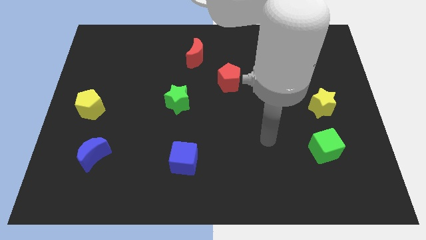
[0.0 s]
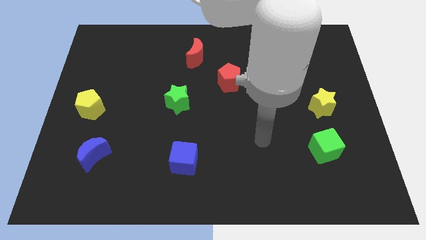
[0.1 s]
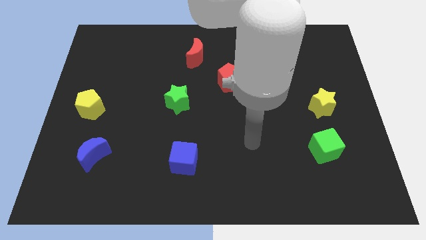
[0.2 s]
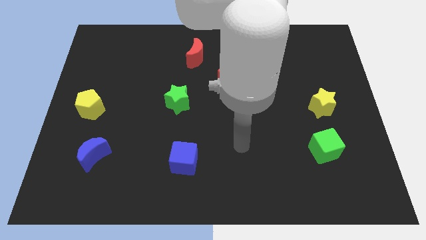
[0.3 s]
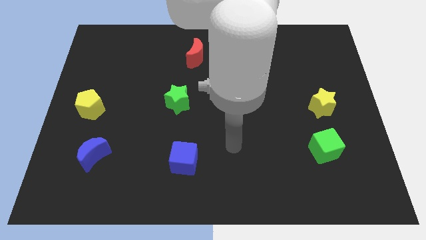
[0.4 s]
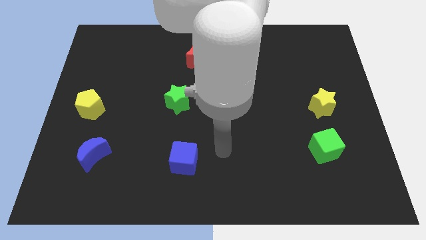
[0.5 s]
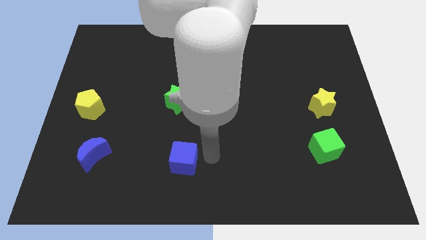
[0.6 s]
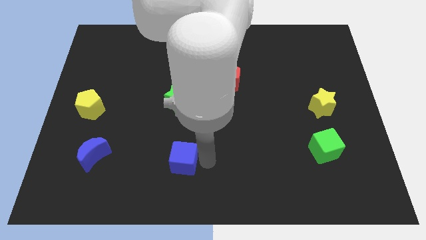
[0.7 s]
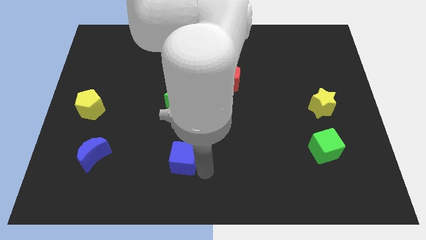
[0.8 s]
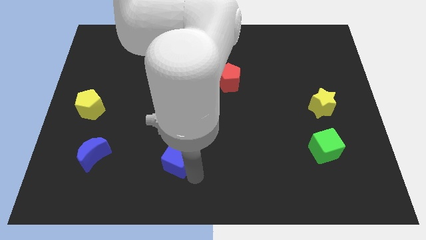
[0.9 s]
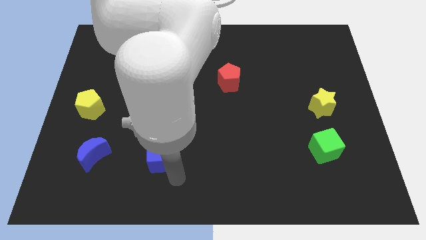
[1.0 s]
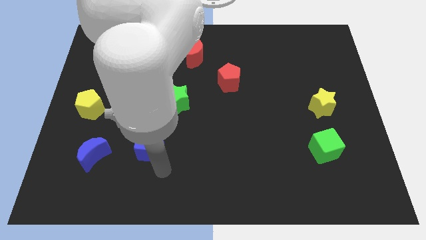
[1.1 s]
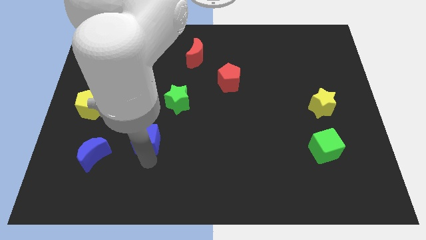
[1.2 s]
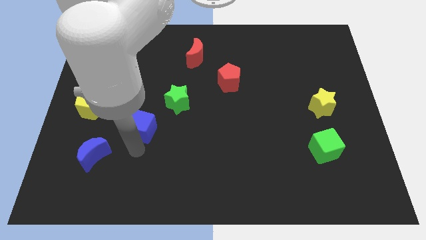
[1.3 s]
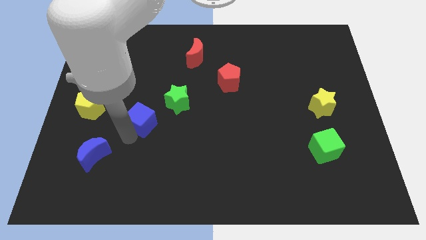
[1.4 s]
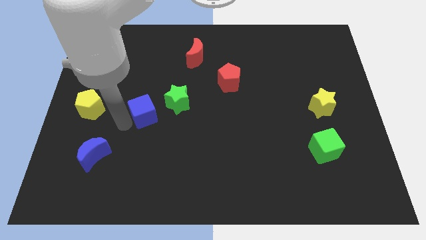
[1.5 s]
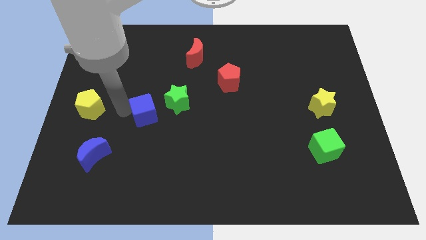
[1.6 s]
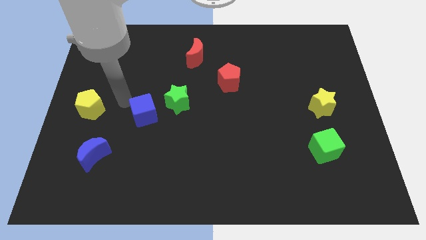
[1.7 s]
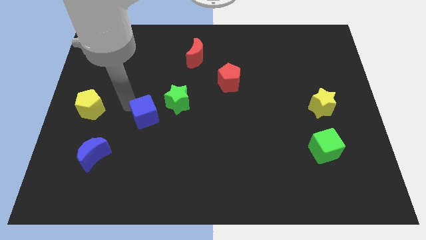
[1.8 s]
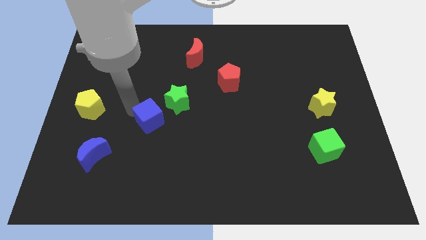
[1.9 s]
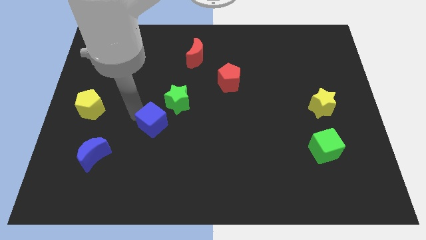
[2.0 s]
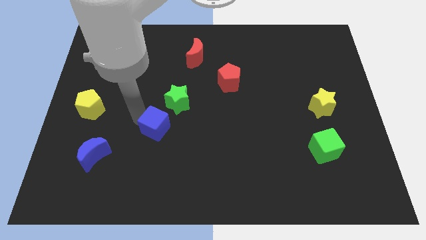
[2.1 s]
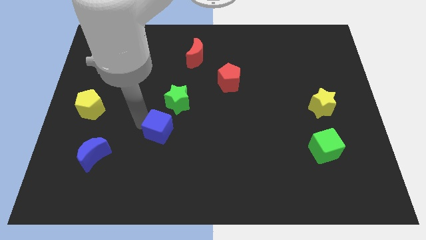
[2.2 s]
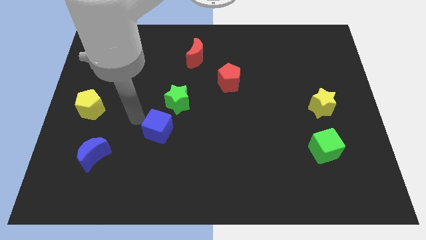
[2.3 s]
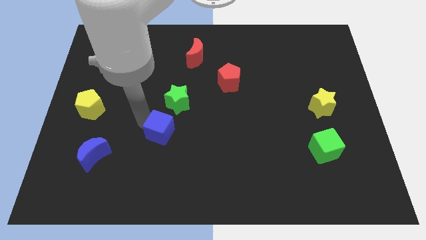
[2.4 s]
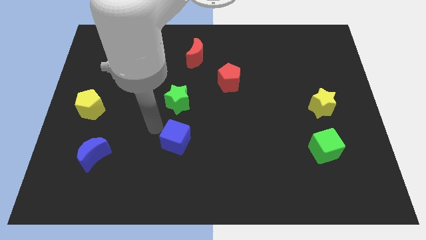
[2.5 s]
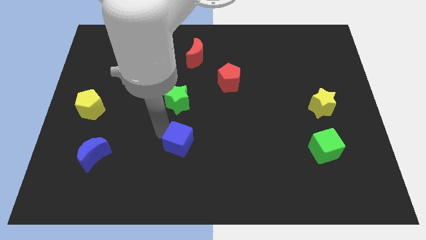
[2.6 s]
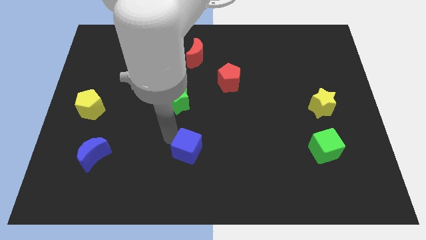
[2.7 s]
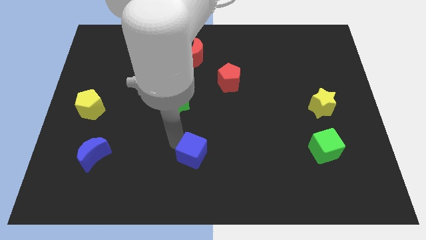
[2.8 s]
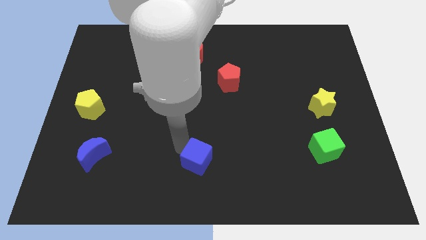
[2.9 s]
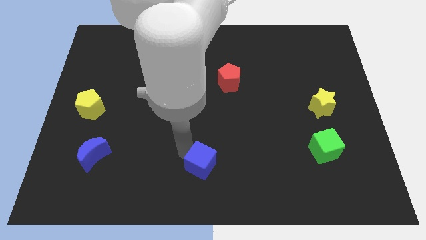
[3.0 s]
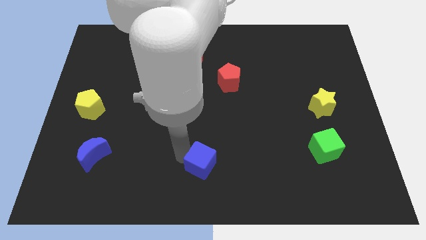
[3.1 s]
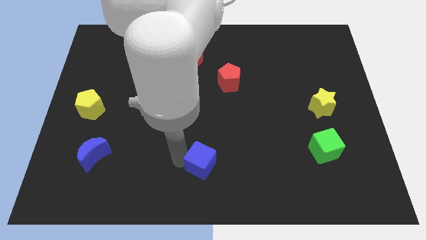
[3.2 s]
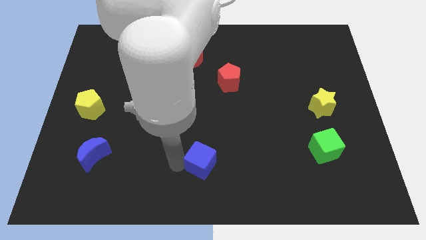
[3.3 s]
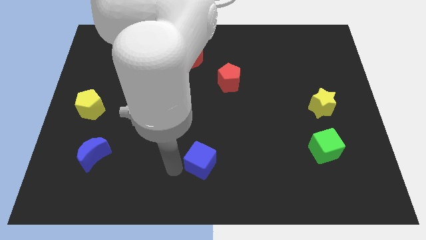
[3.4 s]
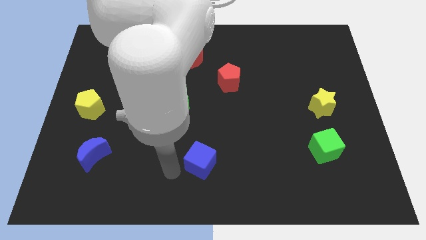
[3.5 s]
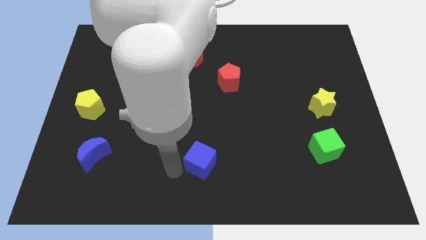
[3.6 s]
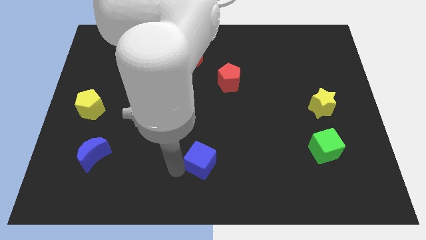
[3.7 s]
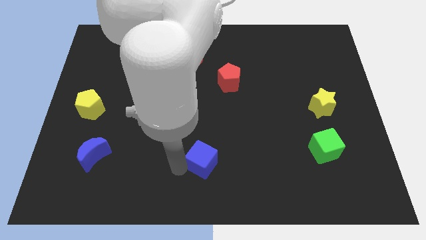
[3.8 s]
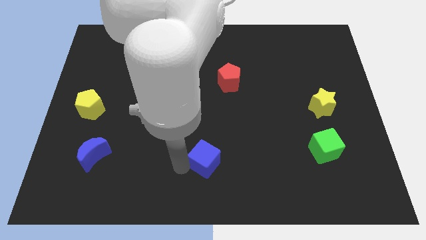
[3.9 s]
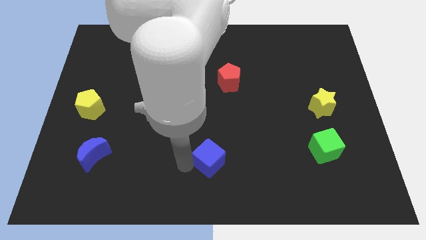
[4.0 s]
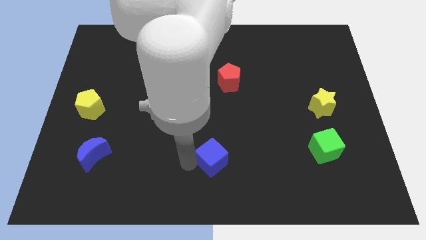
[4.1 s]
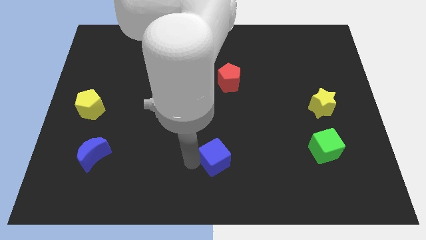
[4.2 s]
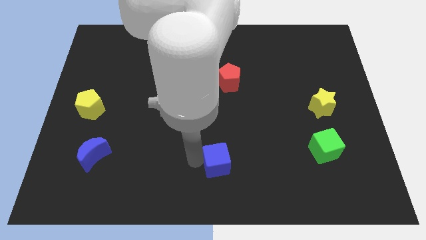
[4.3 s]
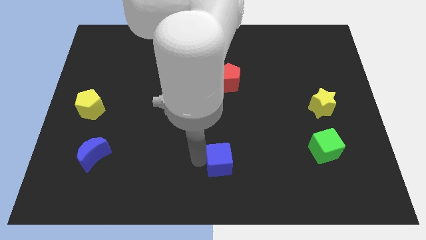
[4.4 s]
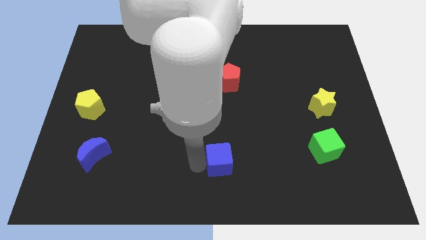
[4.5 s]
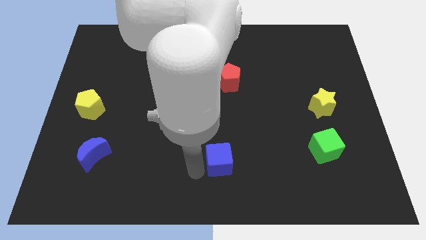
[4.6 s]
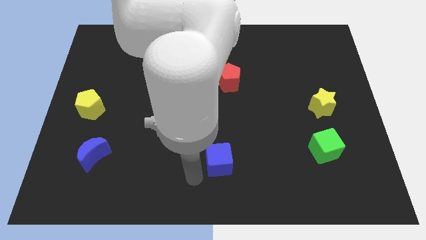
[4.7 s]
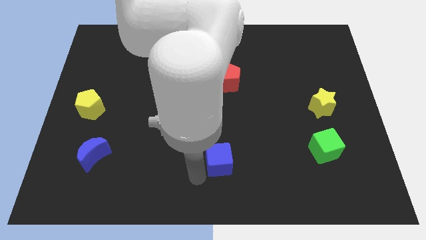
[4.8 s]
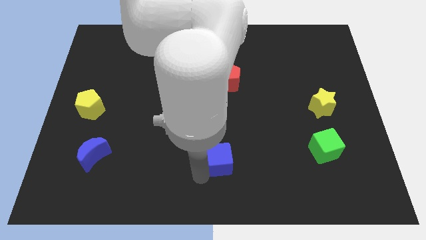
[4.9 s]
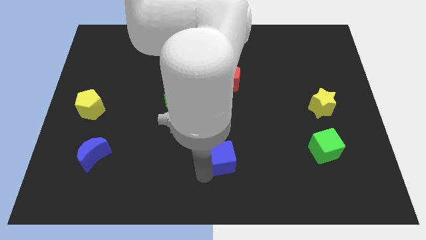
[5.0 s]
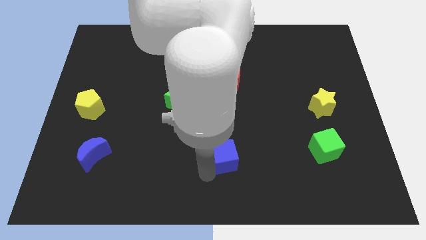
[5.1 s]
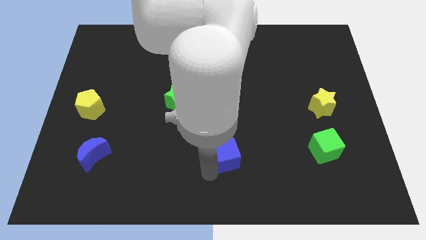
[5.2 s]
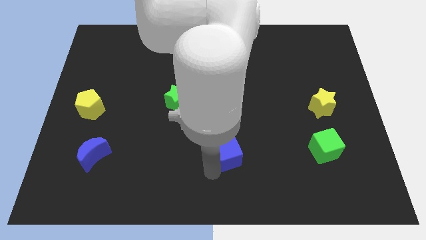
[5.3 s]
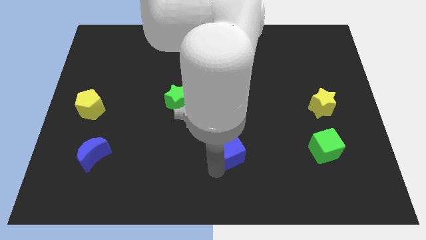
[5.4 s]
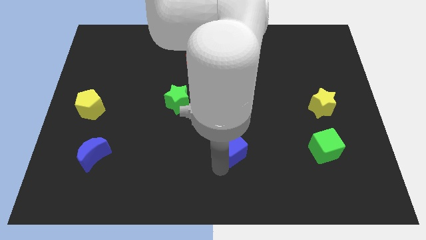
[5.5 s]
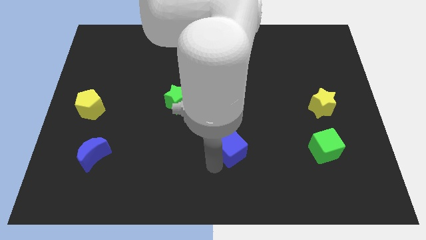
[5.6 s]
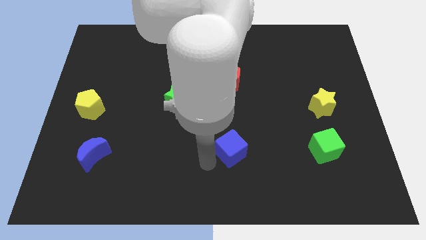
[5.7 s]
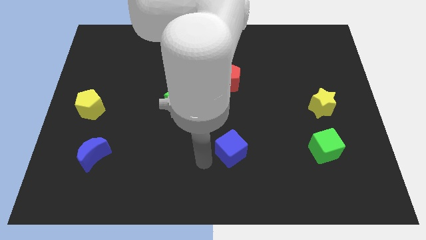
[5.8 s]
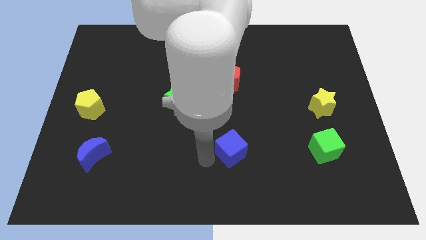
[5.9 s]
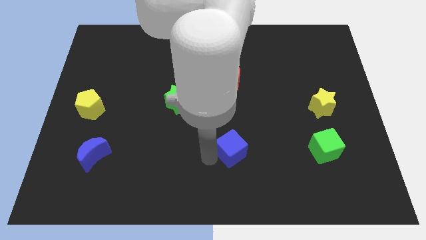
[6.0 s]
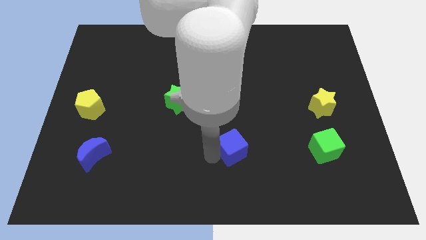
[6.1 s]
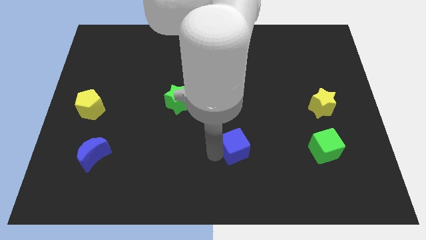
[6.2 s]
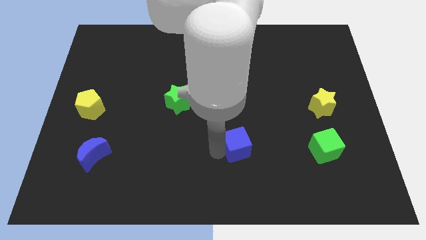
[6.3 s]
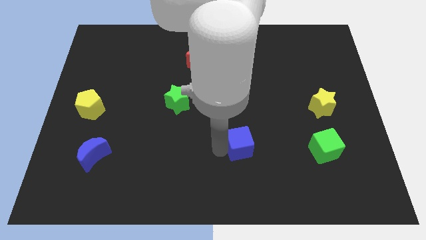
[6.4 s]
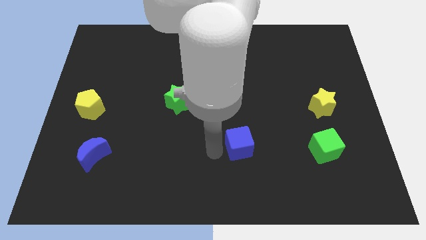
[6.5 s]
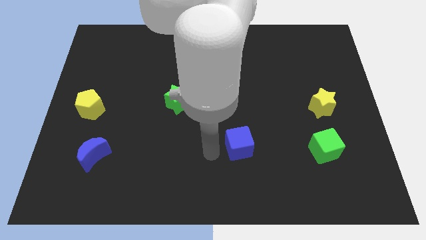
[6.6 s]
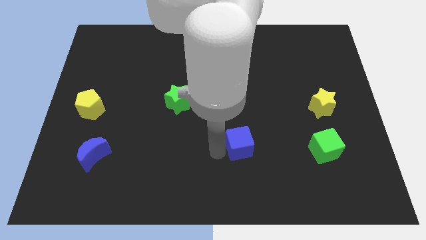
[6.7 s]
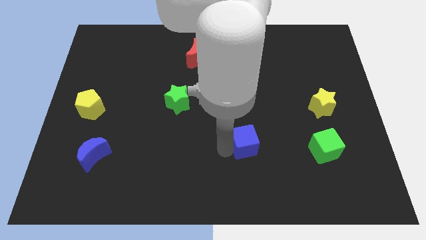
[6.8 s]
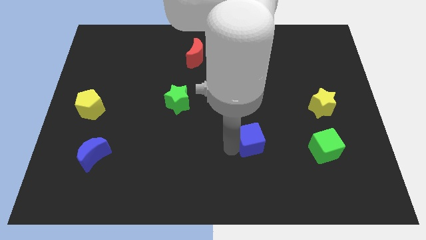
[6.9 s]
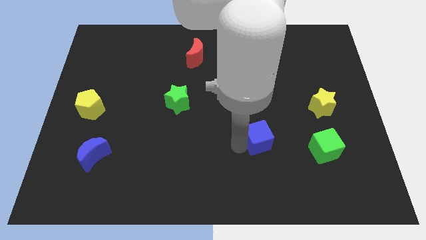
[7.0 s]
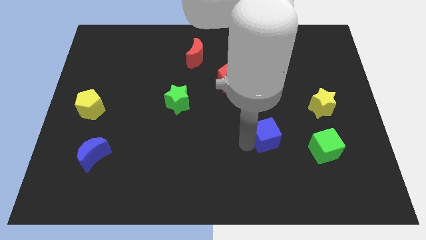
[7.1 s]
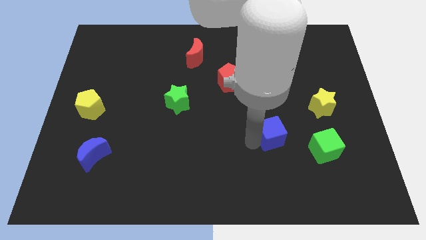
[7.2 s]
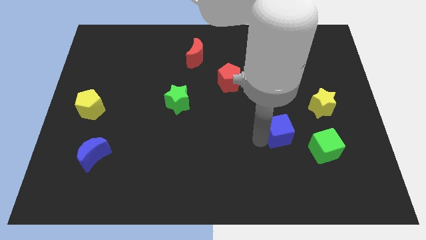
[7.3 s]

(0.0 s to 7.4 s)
slide the blue cube to the top left side of the green cube
